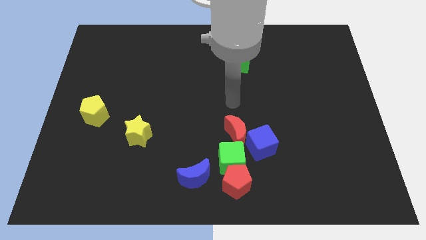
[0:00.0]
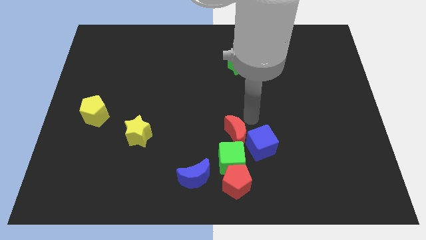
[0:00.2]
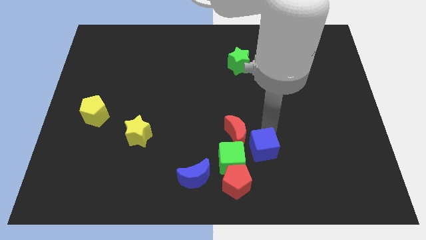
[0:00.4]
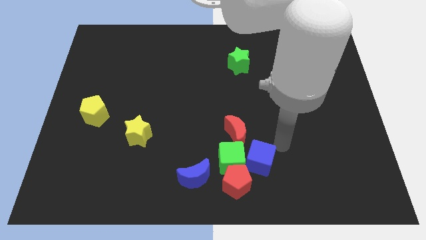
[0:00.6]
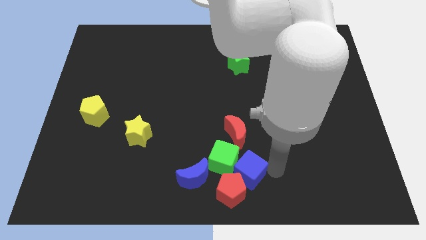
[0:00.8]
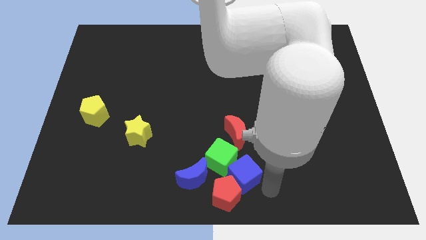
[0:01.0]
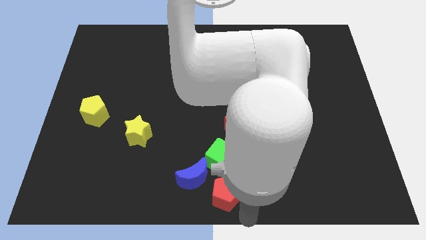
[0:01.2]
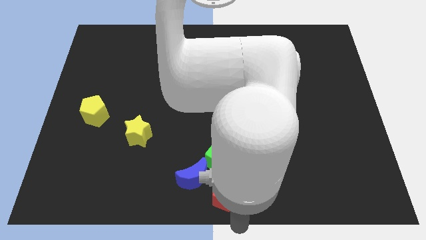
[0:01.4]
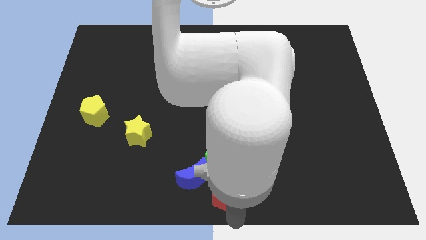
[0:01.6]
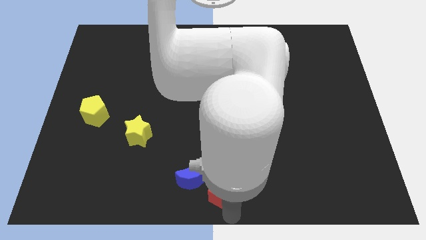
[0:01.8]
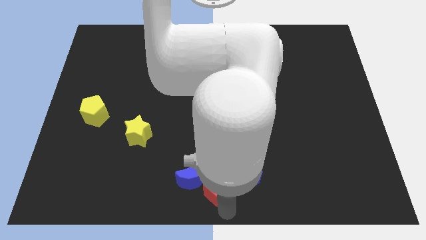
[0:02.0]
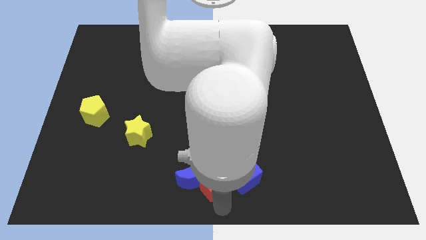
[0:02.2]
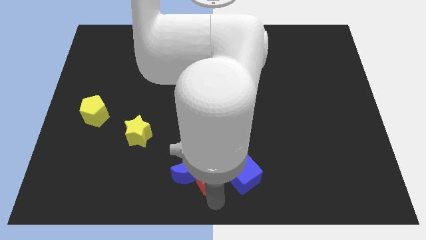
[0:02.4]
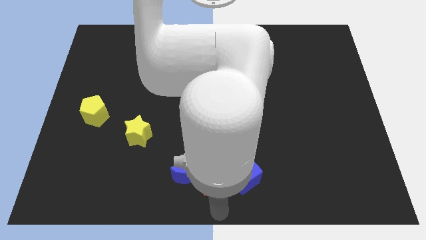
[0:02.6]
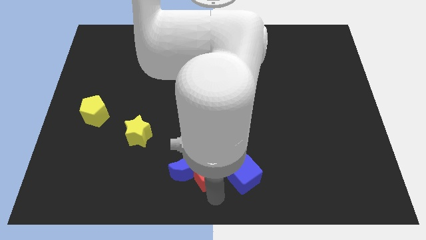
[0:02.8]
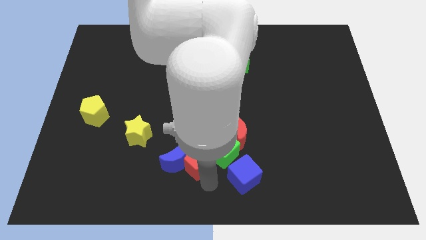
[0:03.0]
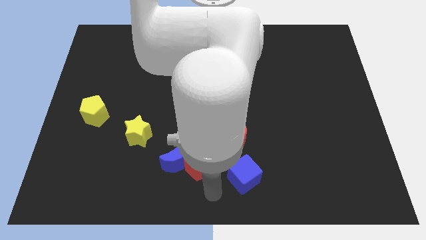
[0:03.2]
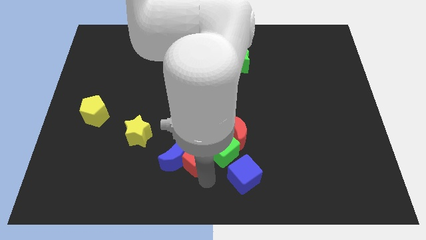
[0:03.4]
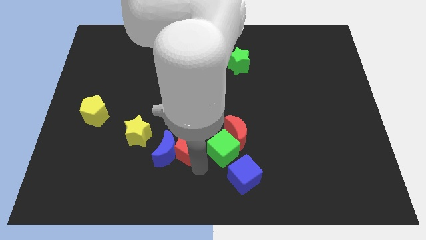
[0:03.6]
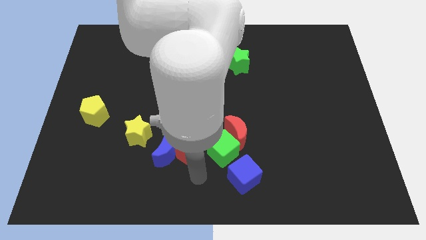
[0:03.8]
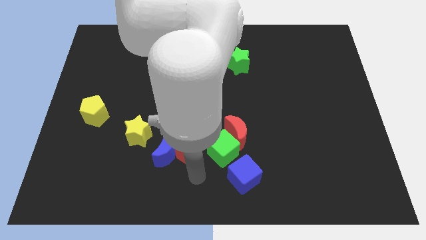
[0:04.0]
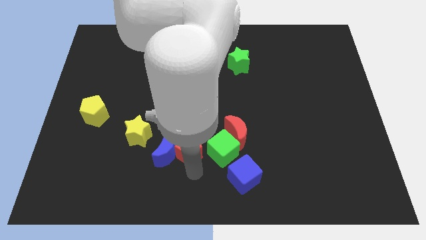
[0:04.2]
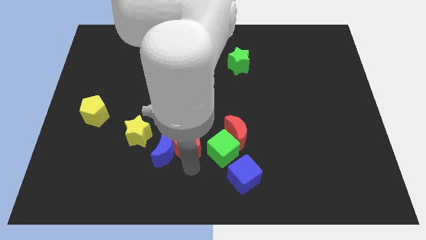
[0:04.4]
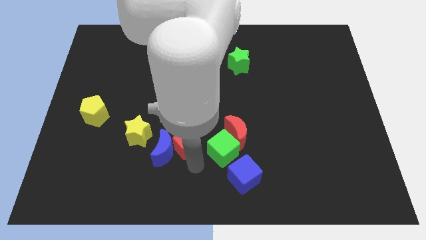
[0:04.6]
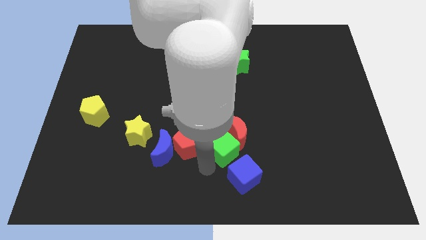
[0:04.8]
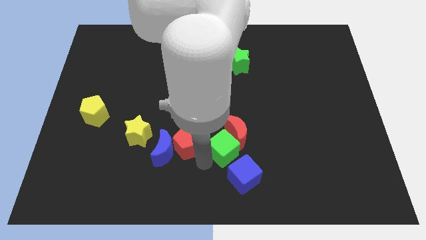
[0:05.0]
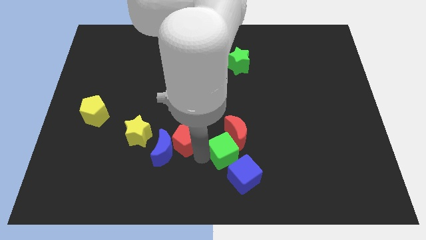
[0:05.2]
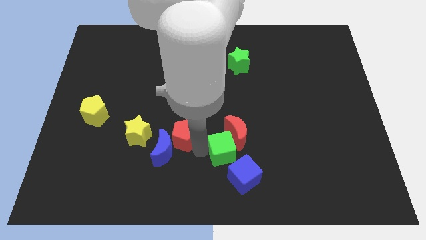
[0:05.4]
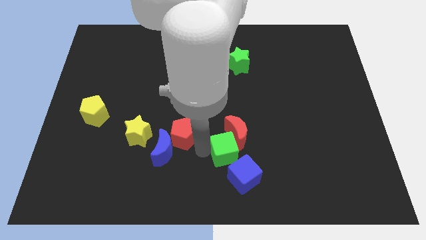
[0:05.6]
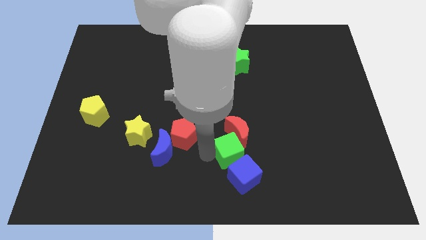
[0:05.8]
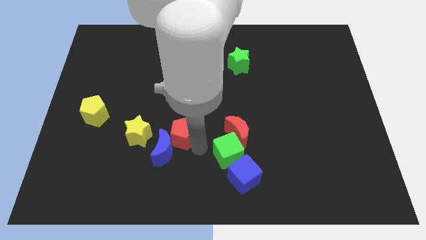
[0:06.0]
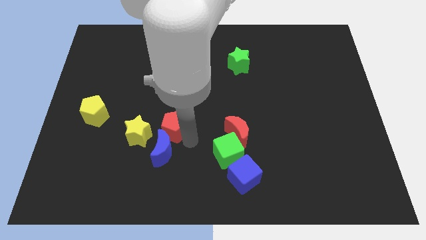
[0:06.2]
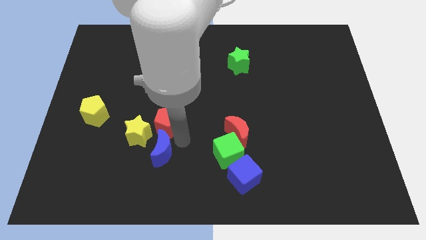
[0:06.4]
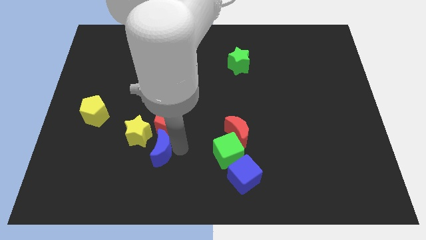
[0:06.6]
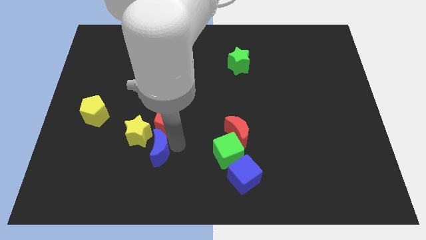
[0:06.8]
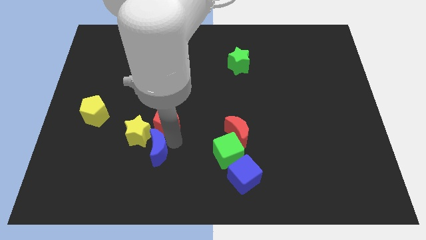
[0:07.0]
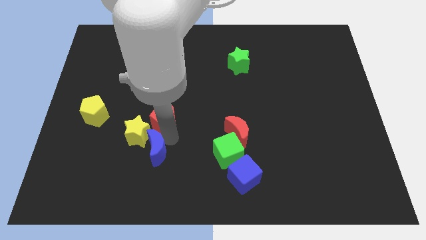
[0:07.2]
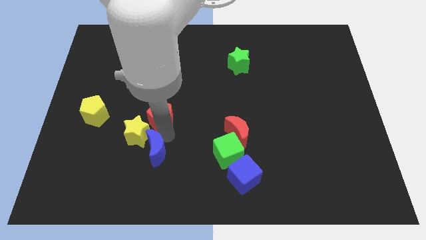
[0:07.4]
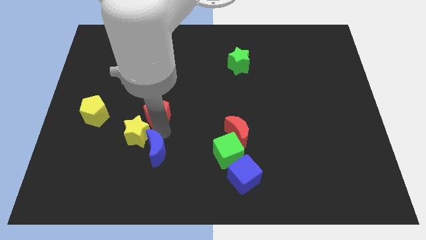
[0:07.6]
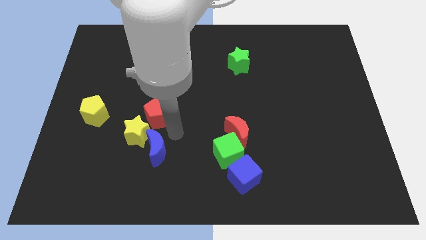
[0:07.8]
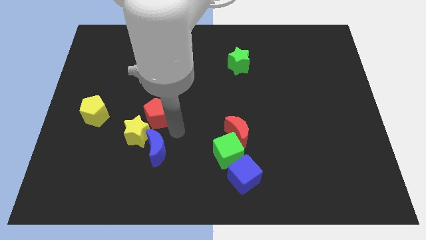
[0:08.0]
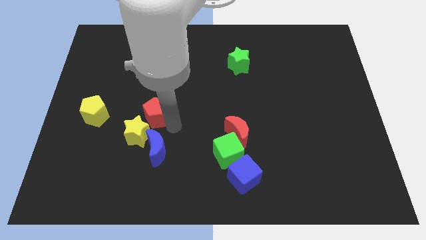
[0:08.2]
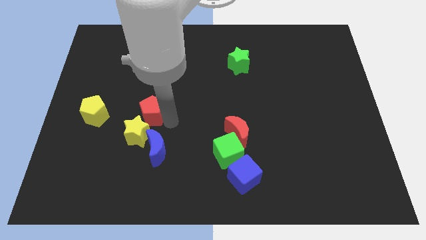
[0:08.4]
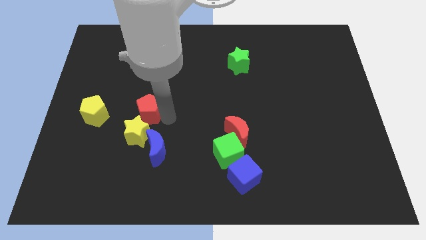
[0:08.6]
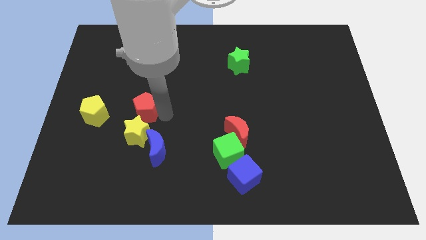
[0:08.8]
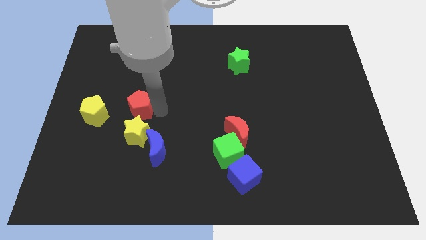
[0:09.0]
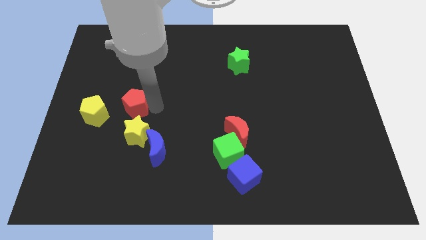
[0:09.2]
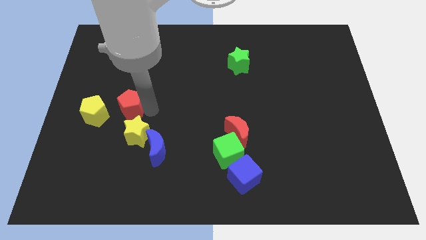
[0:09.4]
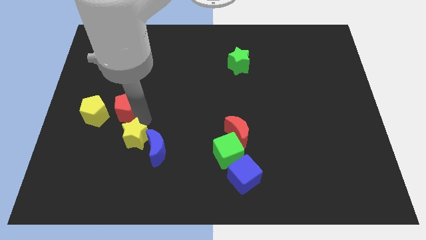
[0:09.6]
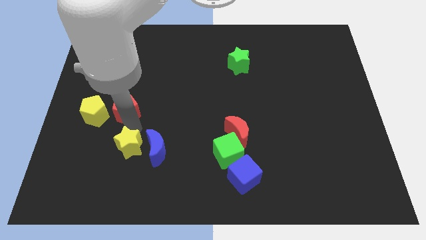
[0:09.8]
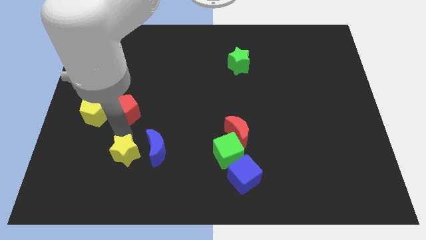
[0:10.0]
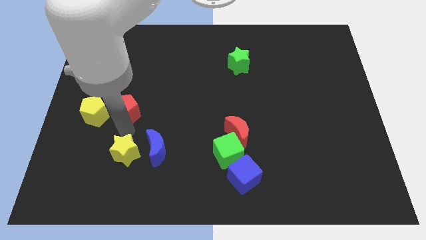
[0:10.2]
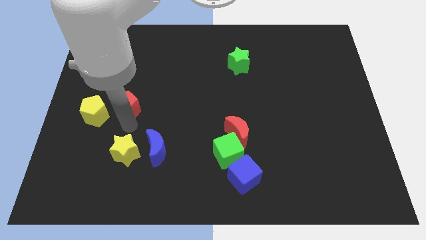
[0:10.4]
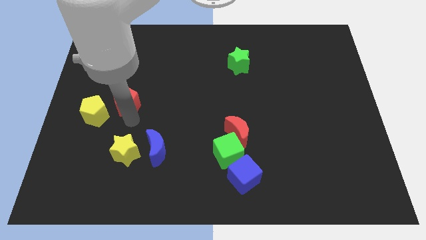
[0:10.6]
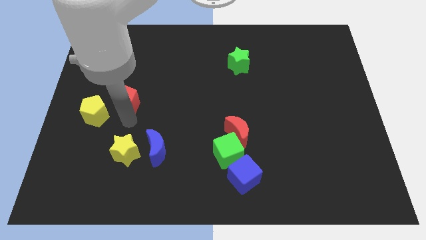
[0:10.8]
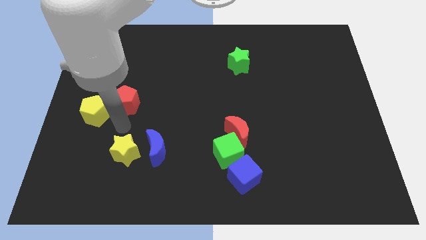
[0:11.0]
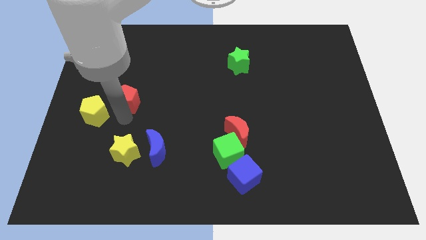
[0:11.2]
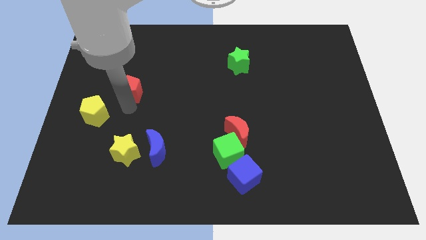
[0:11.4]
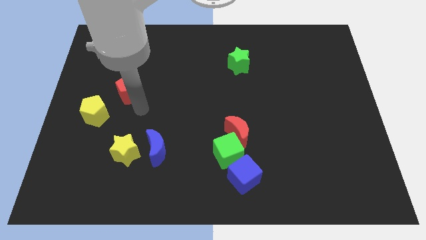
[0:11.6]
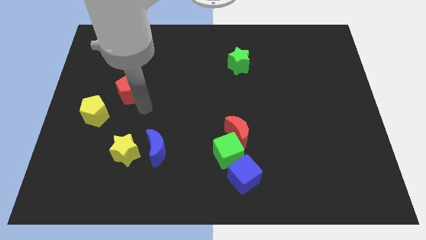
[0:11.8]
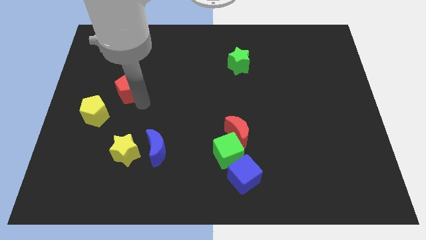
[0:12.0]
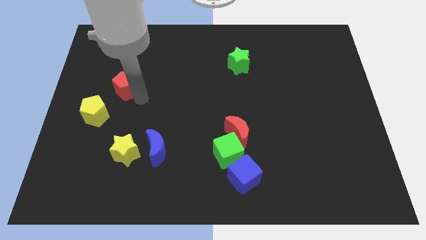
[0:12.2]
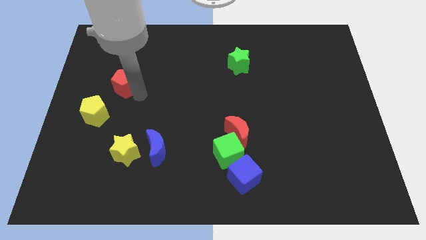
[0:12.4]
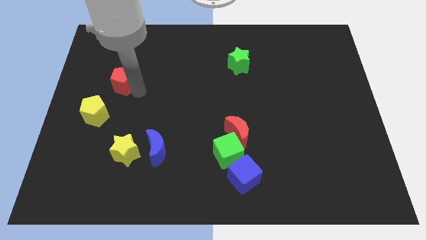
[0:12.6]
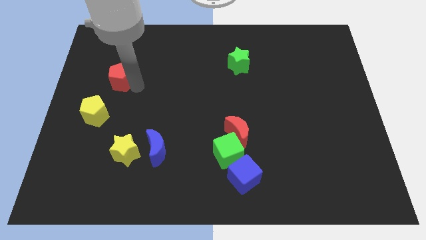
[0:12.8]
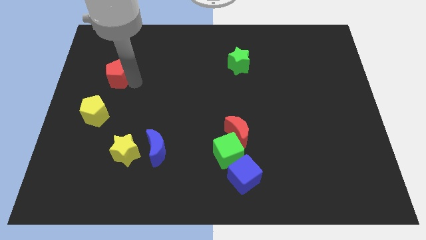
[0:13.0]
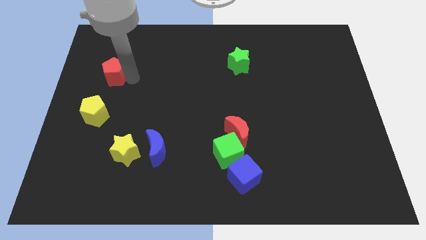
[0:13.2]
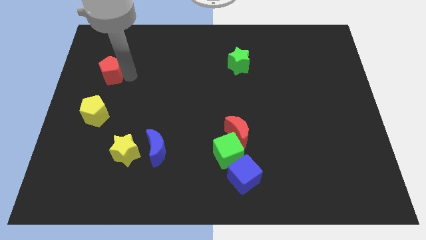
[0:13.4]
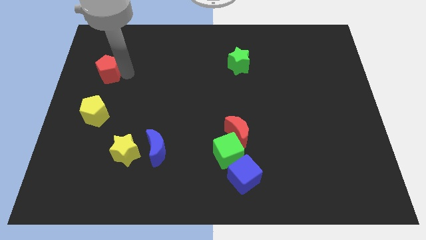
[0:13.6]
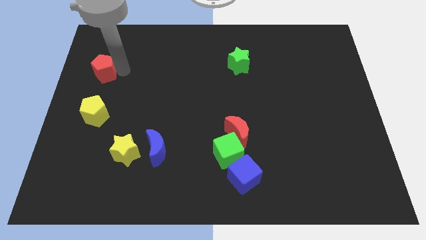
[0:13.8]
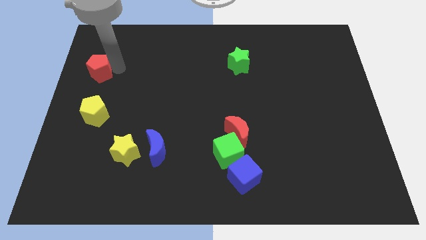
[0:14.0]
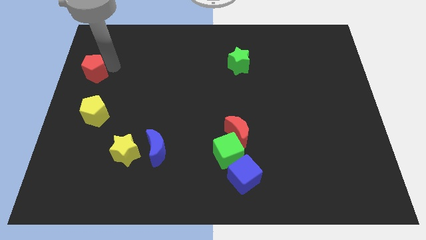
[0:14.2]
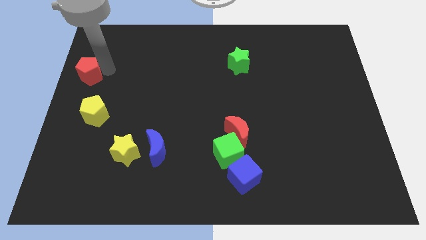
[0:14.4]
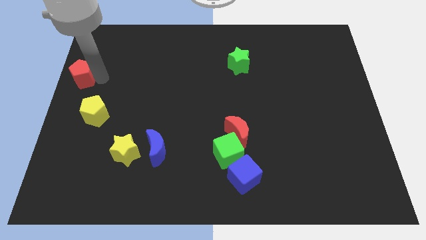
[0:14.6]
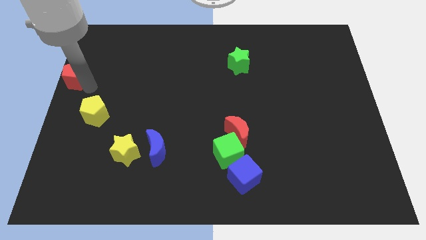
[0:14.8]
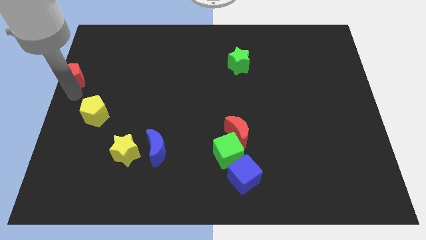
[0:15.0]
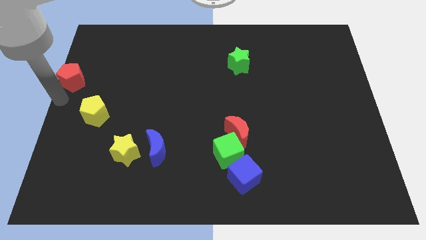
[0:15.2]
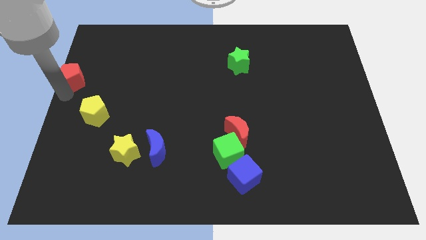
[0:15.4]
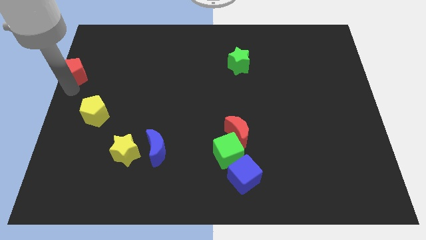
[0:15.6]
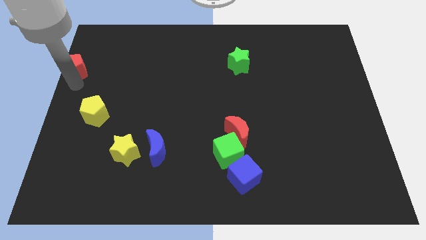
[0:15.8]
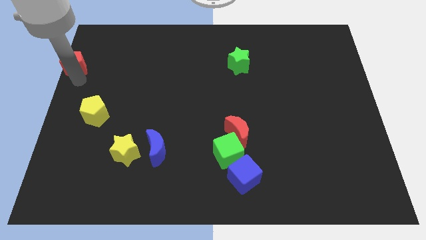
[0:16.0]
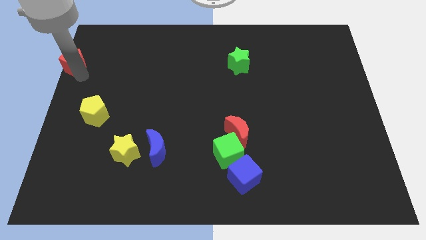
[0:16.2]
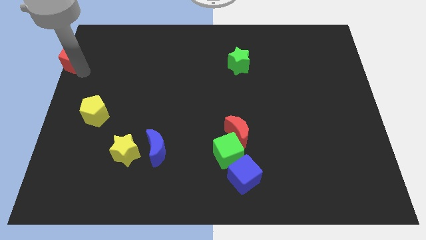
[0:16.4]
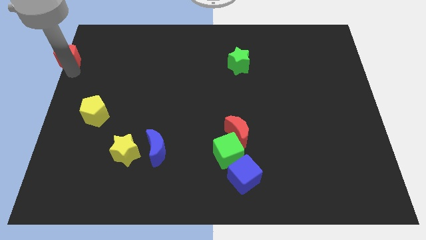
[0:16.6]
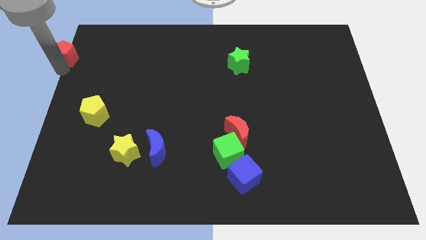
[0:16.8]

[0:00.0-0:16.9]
move the red pentagon to the top left
